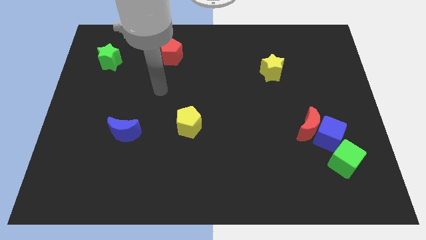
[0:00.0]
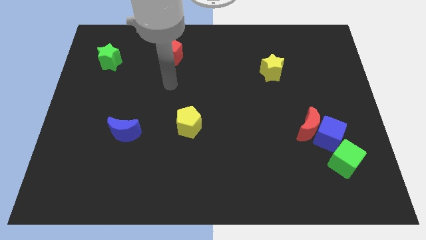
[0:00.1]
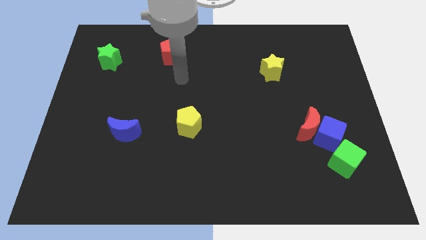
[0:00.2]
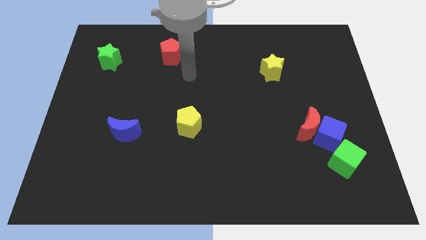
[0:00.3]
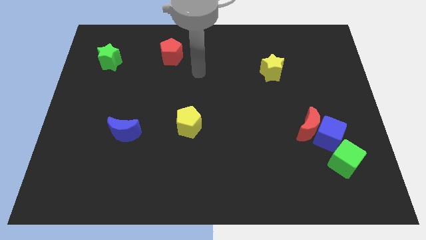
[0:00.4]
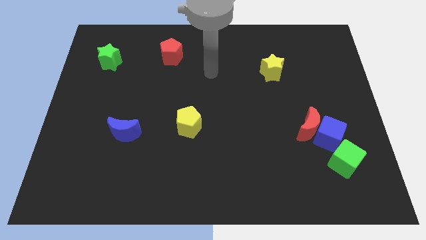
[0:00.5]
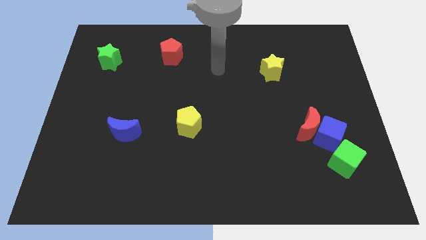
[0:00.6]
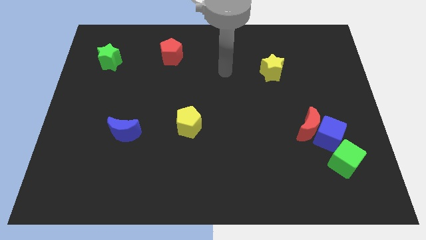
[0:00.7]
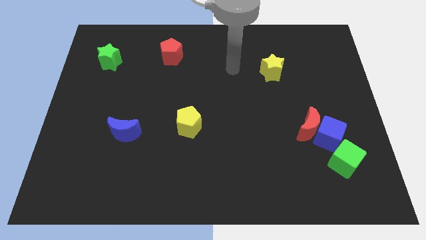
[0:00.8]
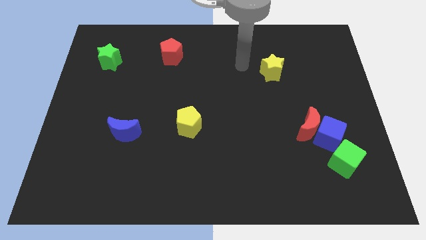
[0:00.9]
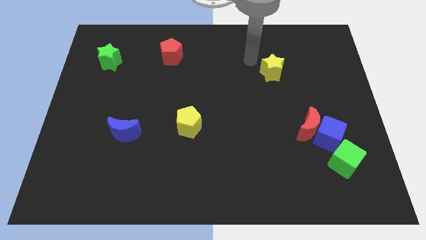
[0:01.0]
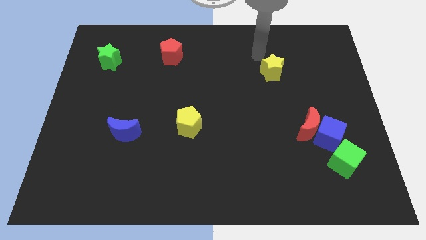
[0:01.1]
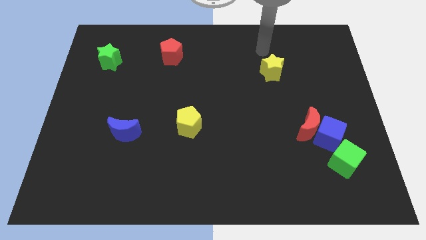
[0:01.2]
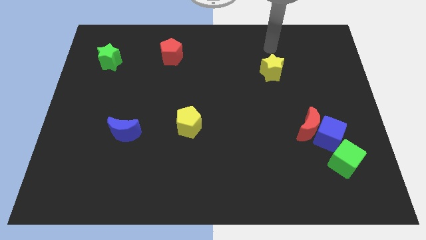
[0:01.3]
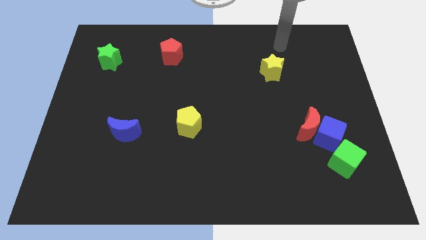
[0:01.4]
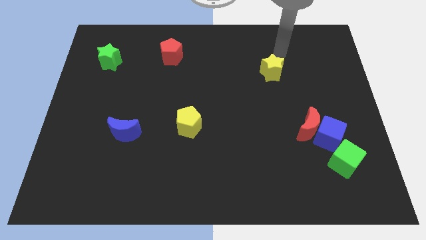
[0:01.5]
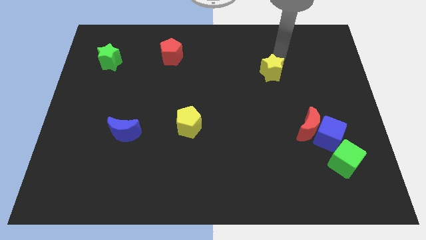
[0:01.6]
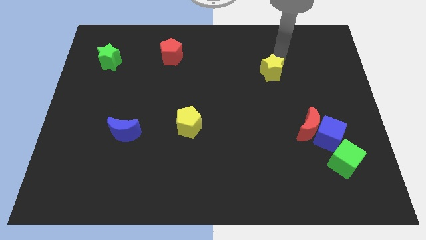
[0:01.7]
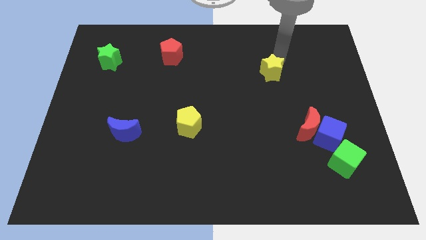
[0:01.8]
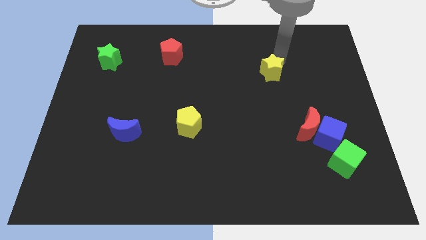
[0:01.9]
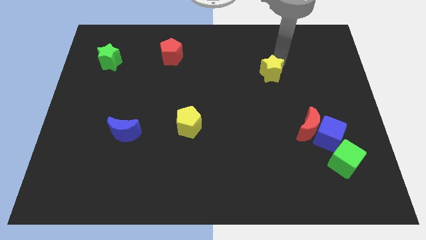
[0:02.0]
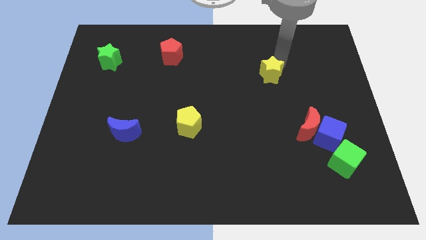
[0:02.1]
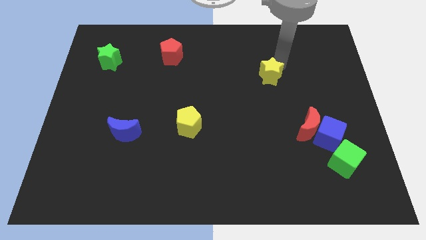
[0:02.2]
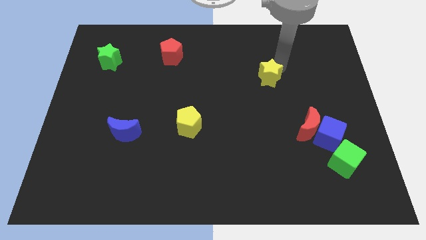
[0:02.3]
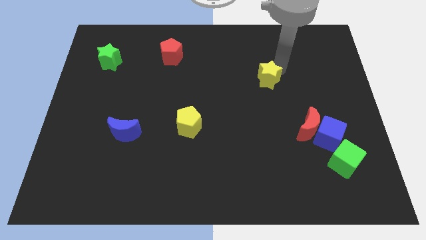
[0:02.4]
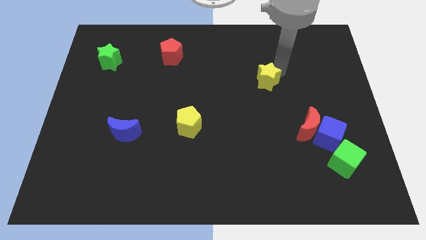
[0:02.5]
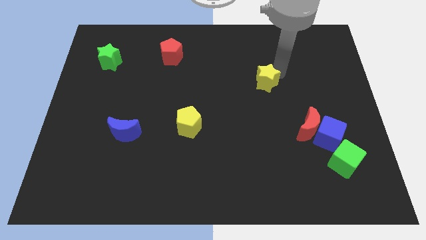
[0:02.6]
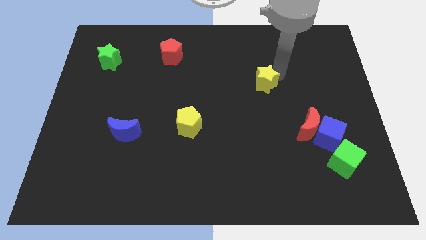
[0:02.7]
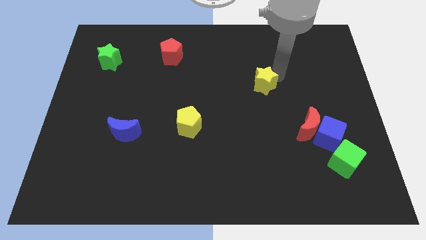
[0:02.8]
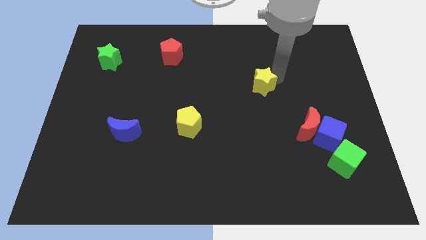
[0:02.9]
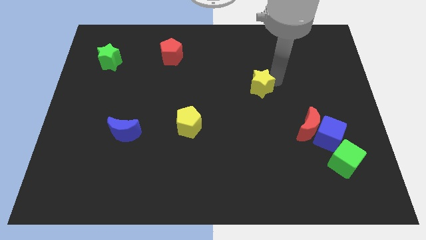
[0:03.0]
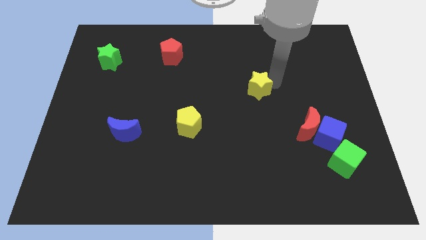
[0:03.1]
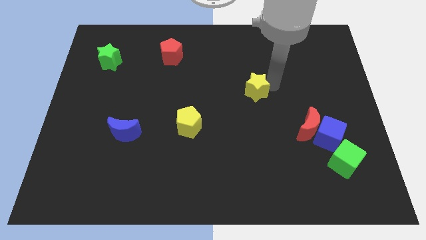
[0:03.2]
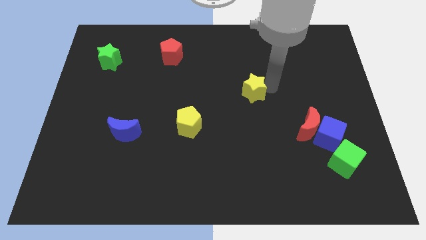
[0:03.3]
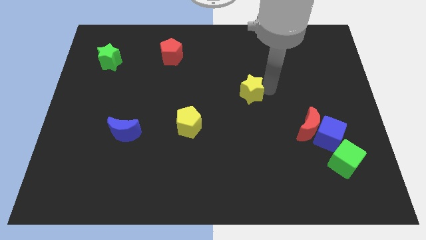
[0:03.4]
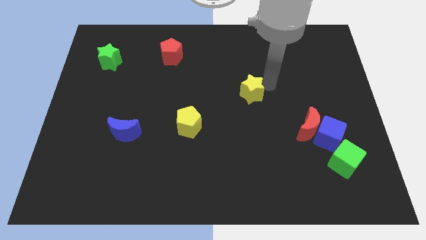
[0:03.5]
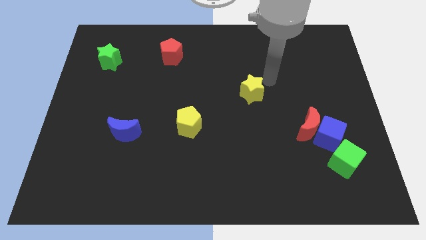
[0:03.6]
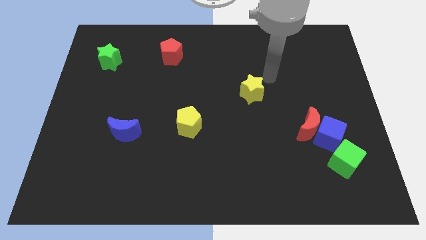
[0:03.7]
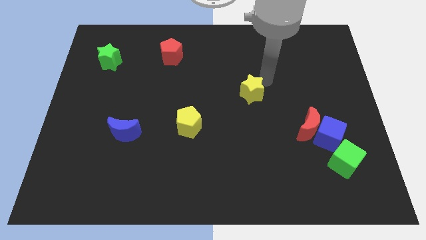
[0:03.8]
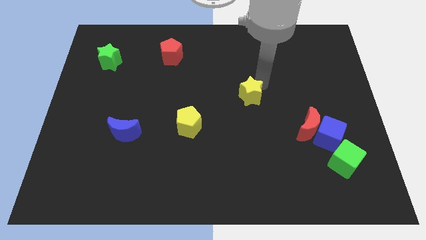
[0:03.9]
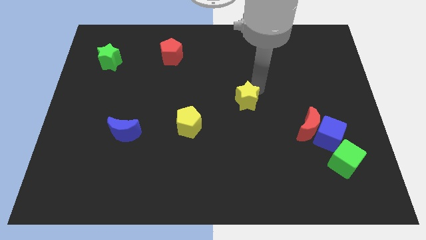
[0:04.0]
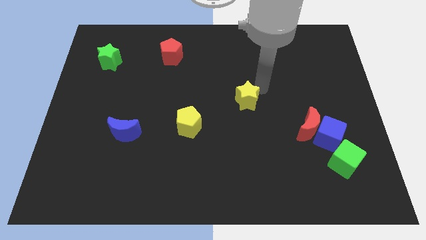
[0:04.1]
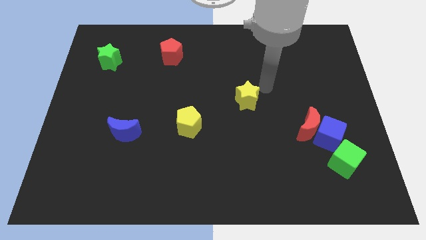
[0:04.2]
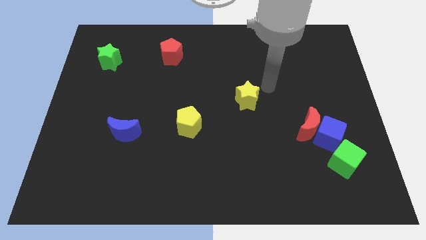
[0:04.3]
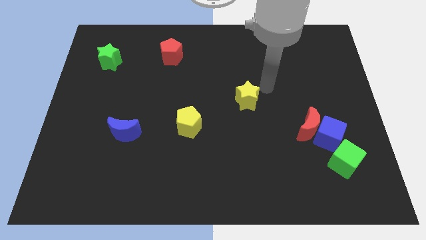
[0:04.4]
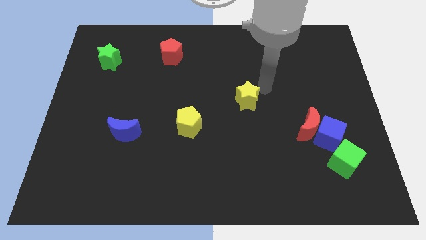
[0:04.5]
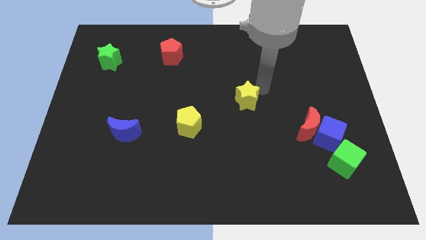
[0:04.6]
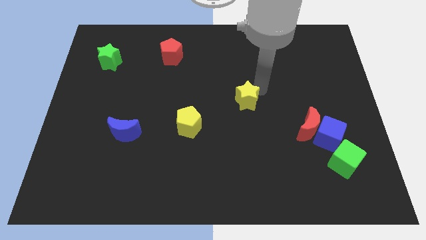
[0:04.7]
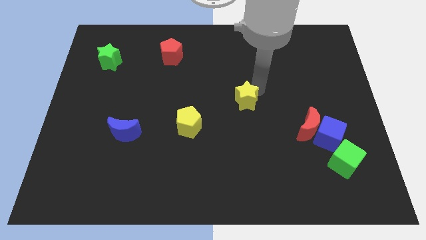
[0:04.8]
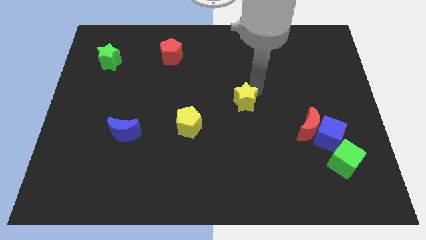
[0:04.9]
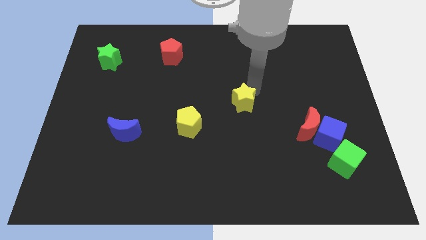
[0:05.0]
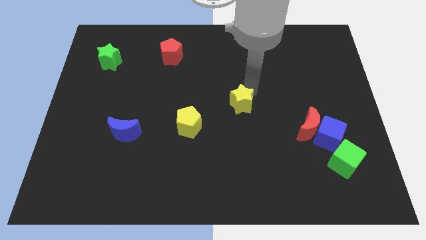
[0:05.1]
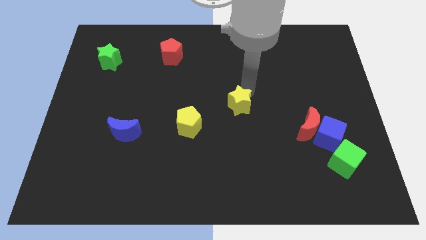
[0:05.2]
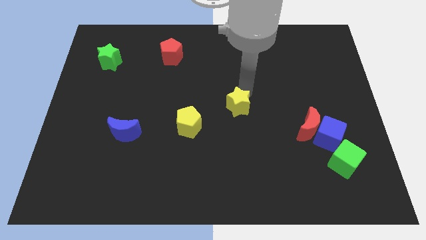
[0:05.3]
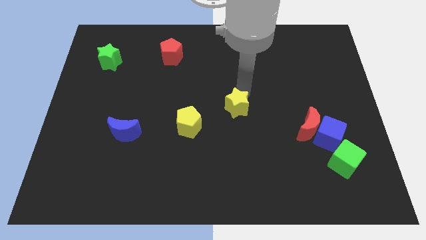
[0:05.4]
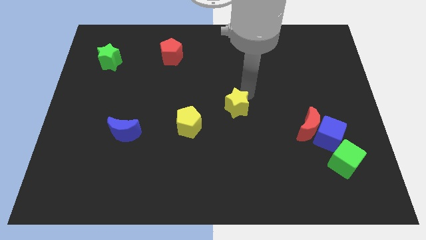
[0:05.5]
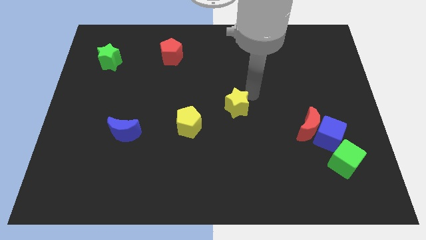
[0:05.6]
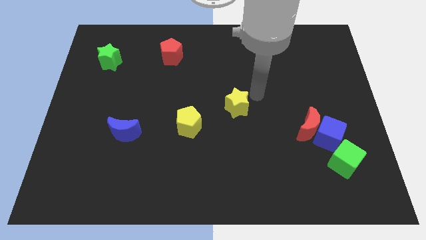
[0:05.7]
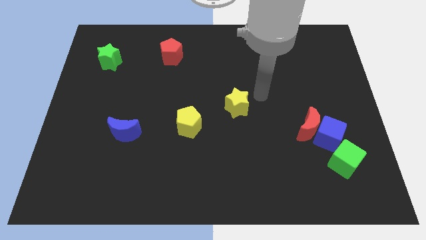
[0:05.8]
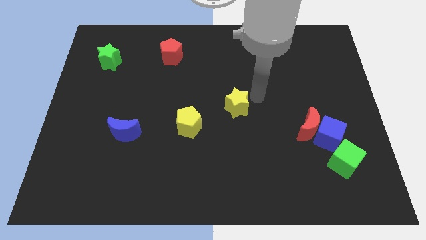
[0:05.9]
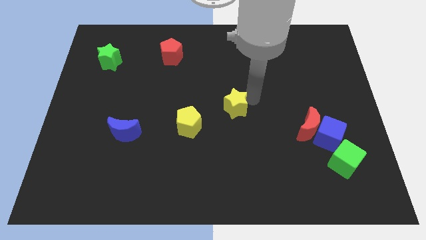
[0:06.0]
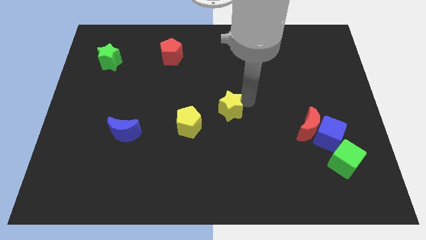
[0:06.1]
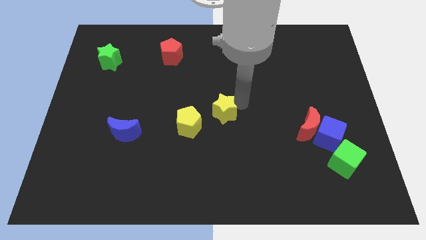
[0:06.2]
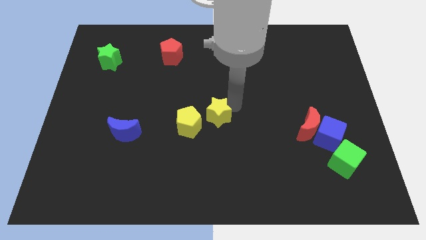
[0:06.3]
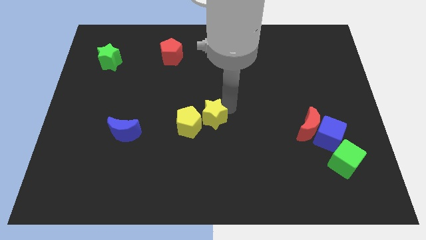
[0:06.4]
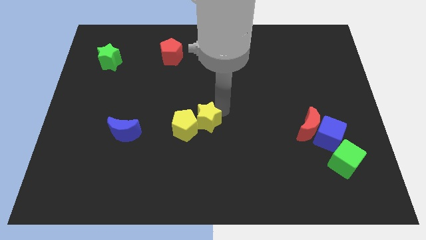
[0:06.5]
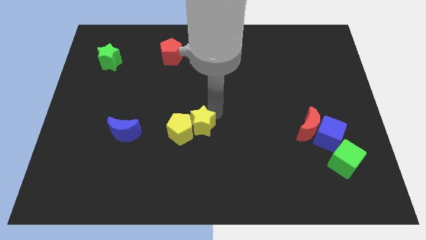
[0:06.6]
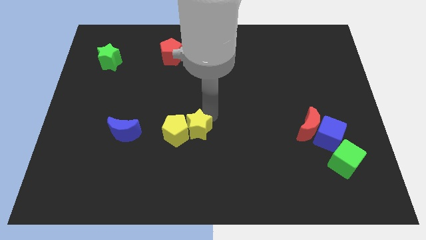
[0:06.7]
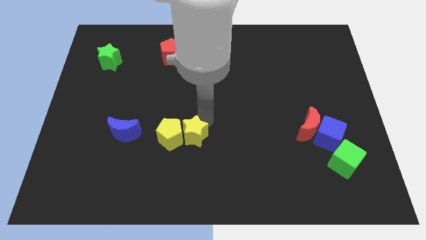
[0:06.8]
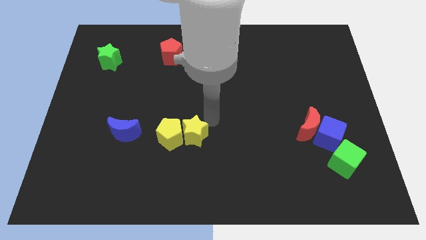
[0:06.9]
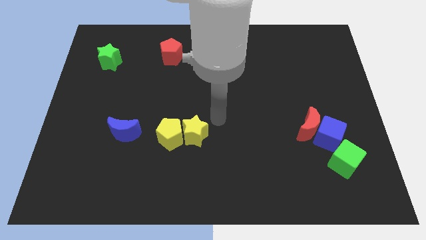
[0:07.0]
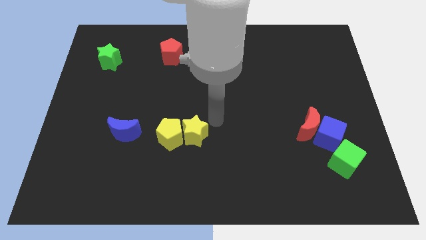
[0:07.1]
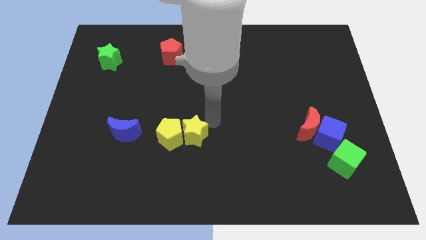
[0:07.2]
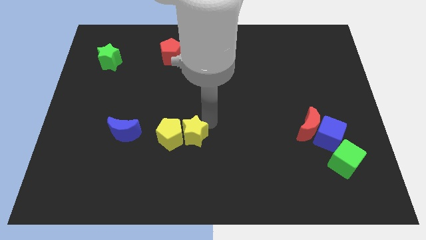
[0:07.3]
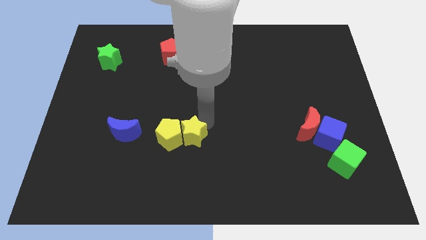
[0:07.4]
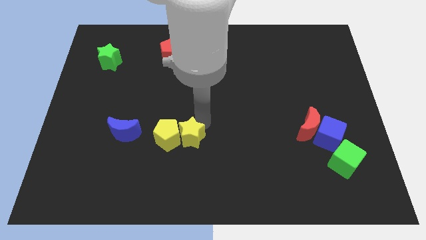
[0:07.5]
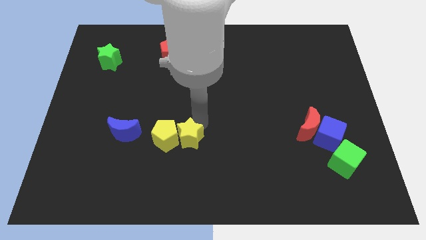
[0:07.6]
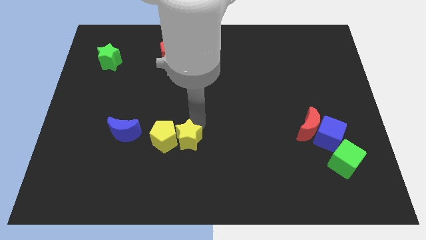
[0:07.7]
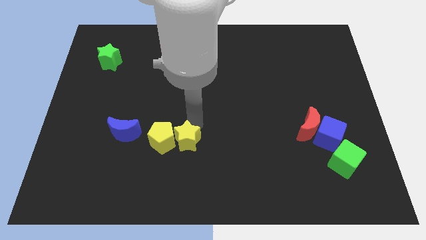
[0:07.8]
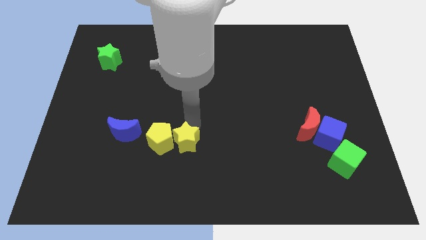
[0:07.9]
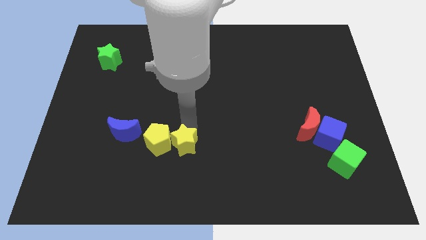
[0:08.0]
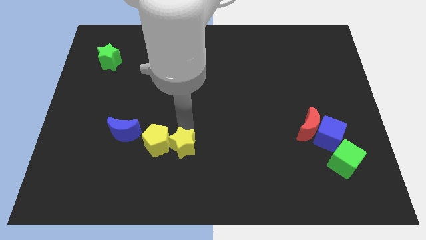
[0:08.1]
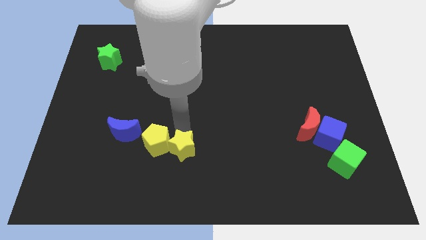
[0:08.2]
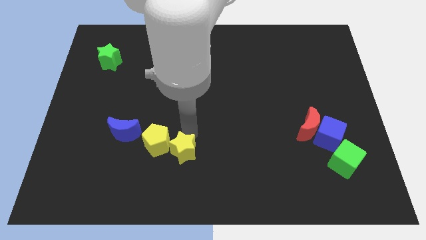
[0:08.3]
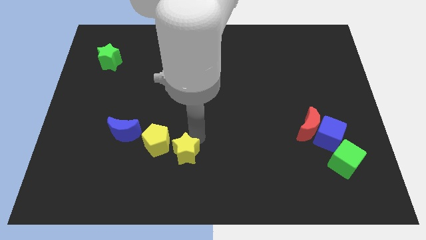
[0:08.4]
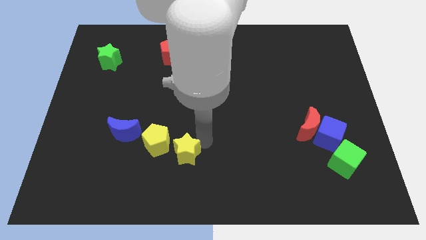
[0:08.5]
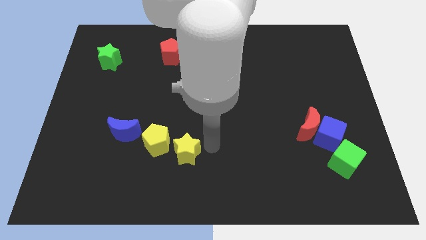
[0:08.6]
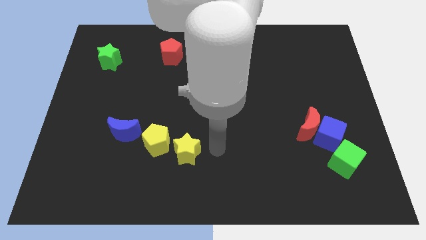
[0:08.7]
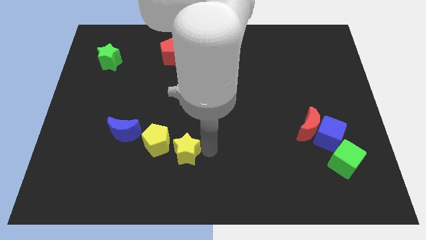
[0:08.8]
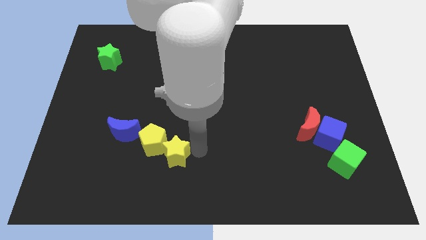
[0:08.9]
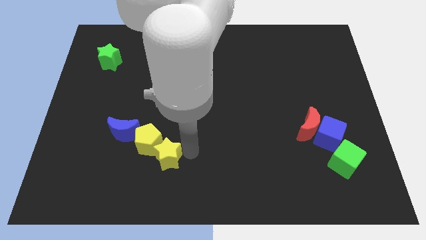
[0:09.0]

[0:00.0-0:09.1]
slide the yellow star to the bottom right of the blue moon
